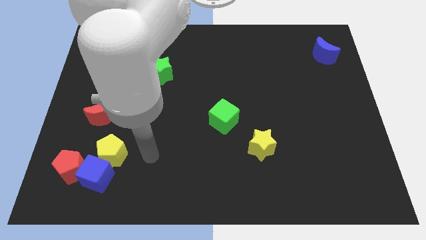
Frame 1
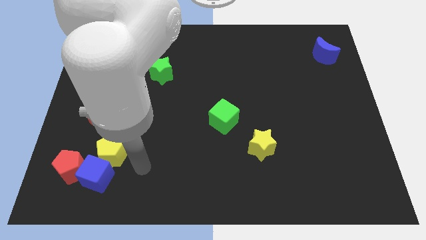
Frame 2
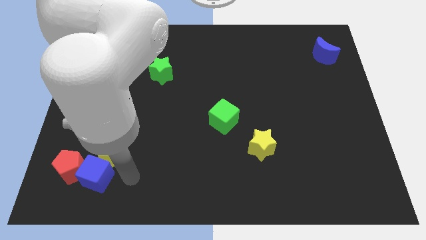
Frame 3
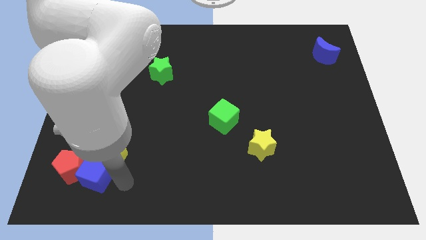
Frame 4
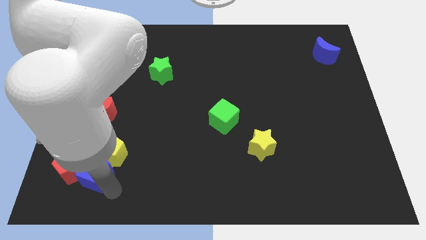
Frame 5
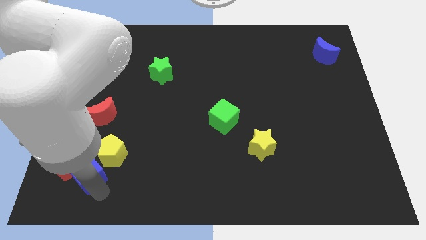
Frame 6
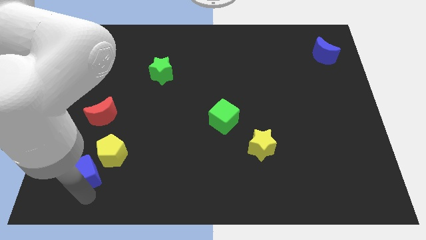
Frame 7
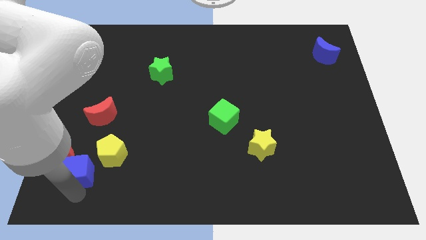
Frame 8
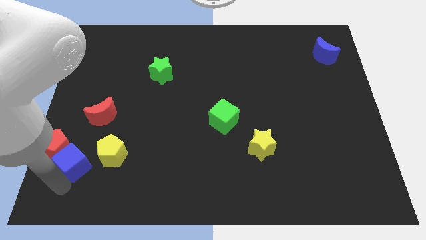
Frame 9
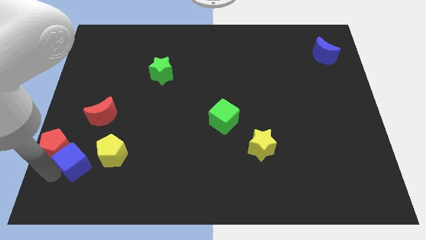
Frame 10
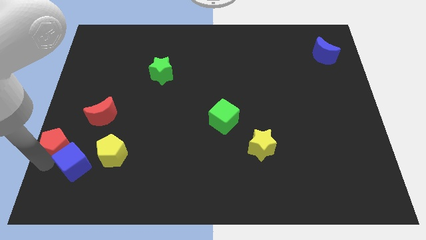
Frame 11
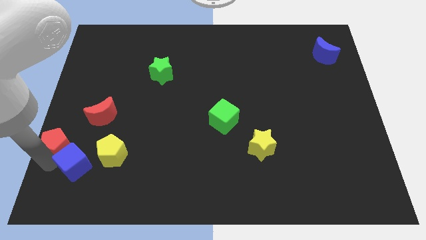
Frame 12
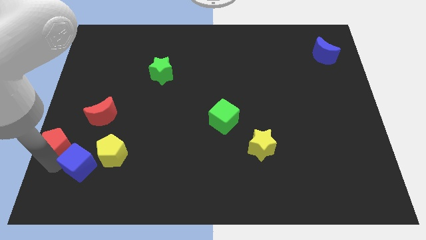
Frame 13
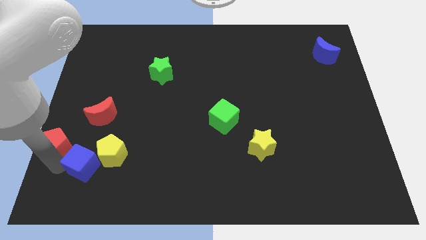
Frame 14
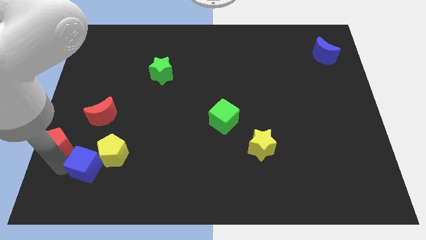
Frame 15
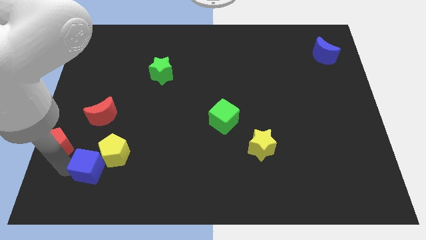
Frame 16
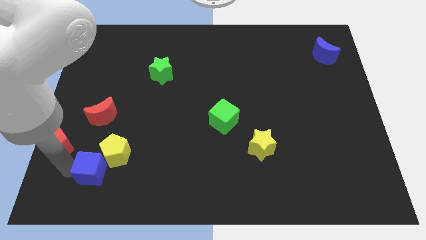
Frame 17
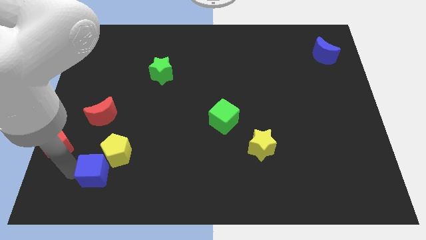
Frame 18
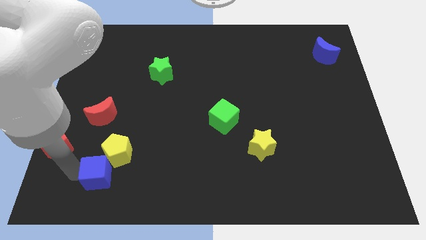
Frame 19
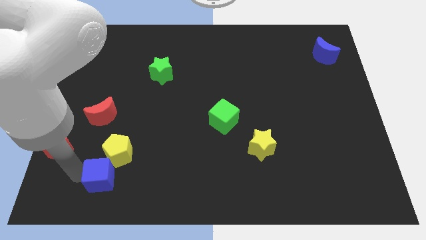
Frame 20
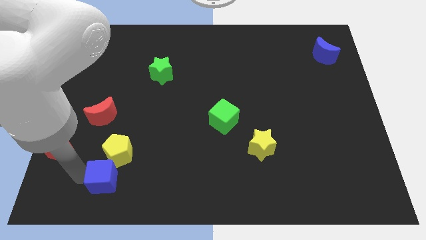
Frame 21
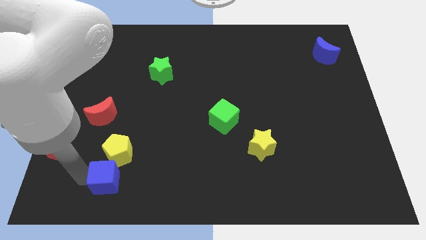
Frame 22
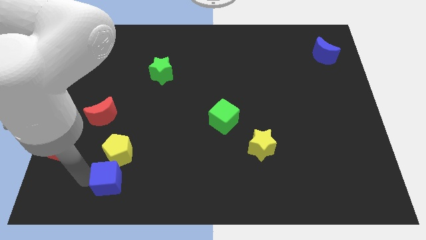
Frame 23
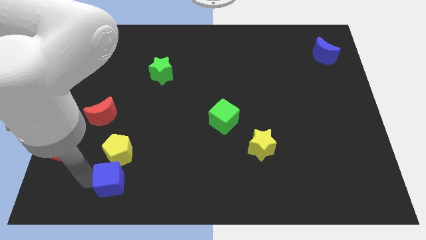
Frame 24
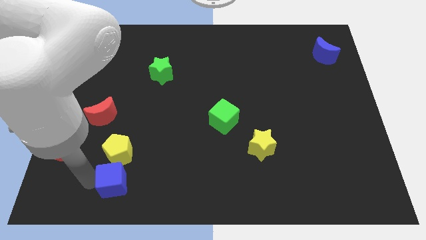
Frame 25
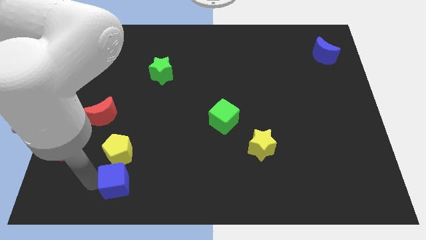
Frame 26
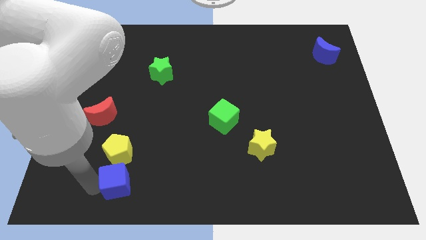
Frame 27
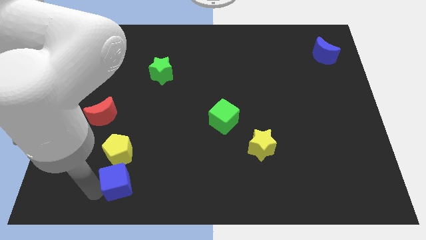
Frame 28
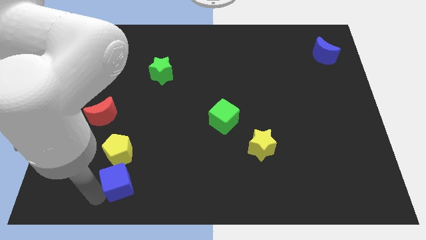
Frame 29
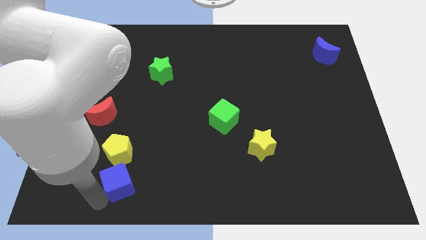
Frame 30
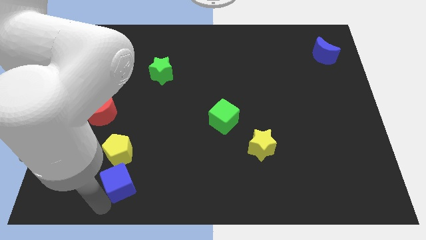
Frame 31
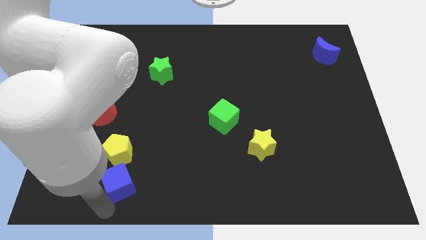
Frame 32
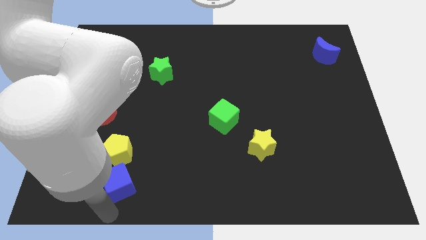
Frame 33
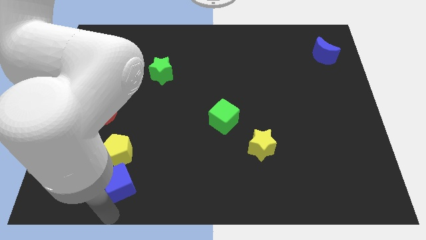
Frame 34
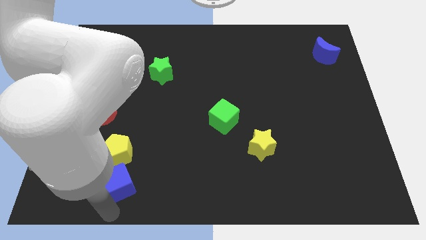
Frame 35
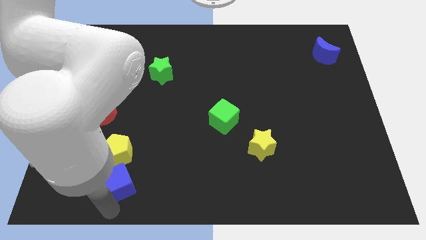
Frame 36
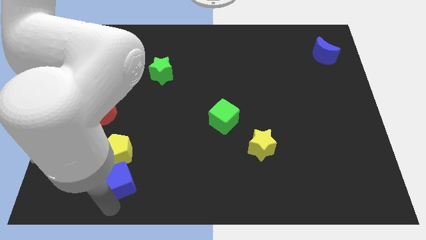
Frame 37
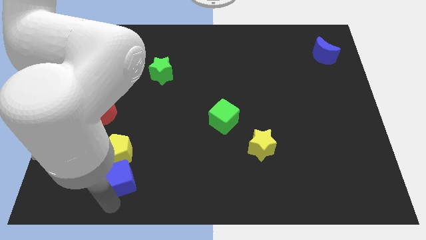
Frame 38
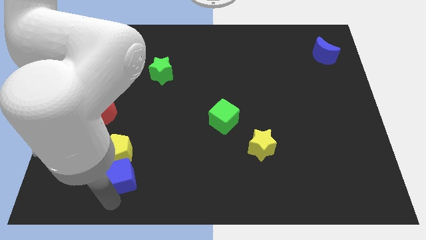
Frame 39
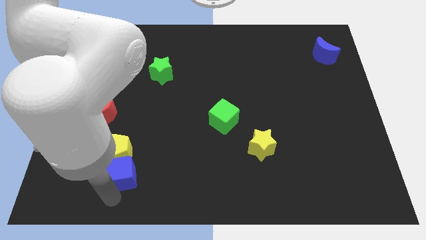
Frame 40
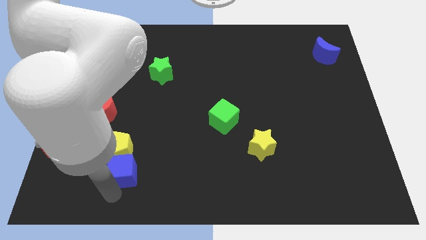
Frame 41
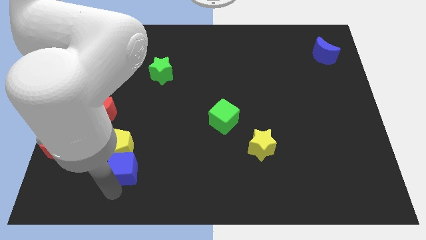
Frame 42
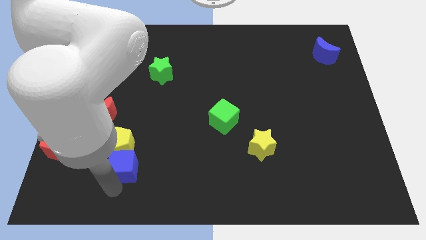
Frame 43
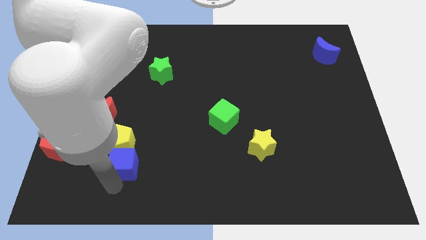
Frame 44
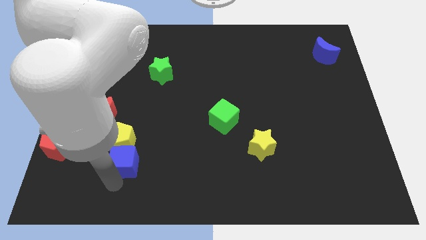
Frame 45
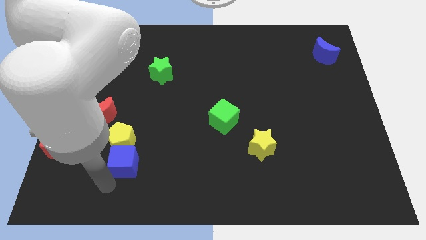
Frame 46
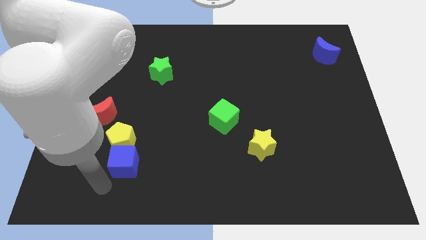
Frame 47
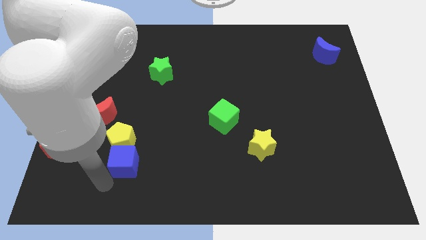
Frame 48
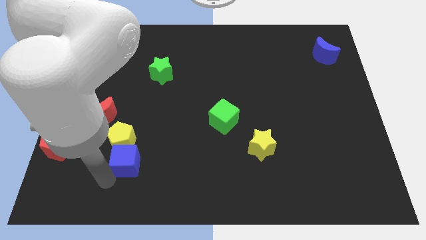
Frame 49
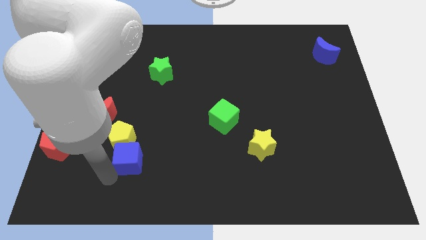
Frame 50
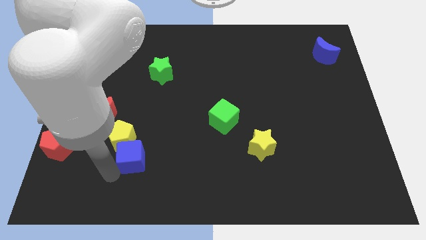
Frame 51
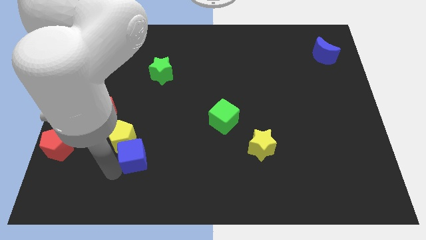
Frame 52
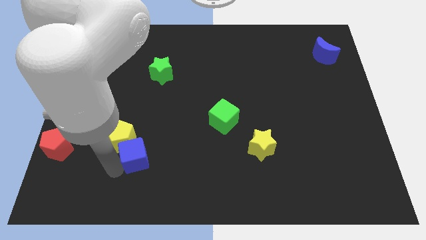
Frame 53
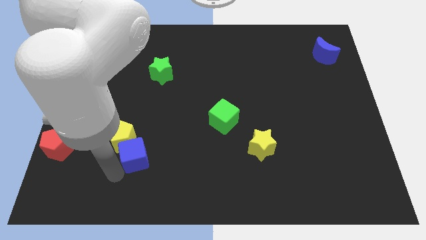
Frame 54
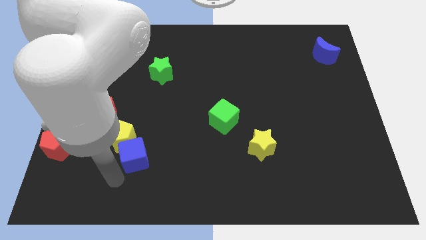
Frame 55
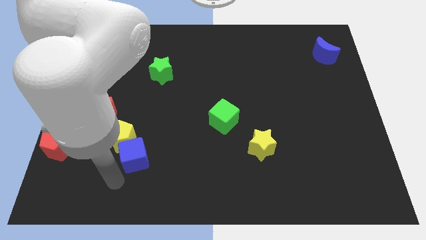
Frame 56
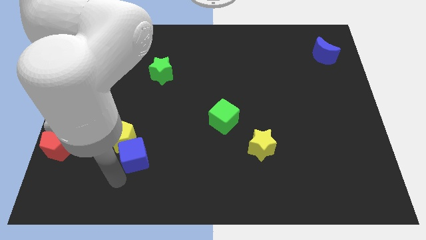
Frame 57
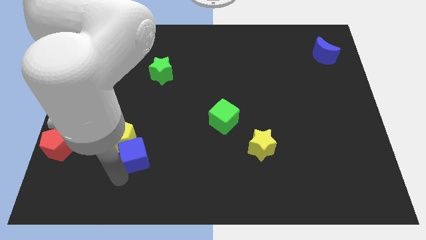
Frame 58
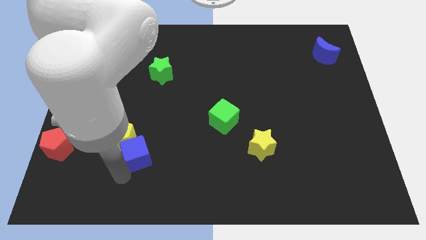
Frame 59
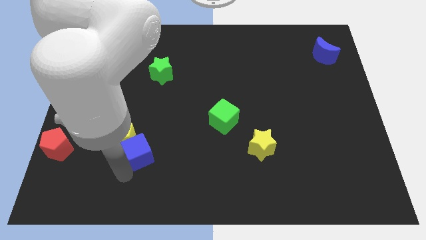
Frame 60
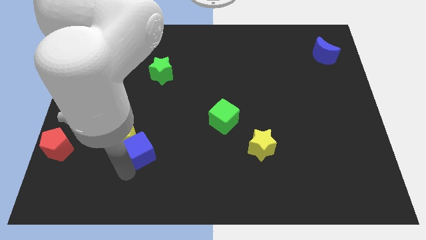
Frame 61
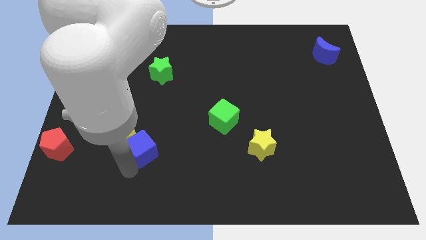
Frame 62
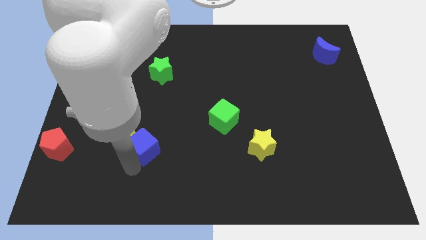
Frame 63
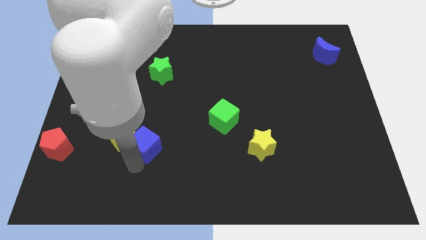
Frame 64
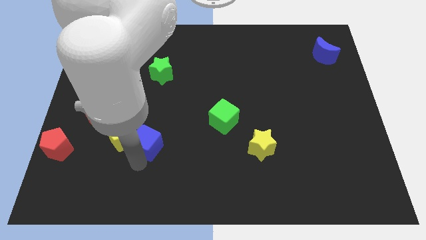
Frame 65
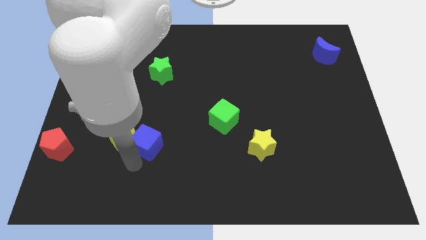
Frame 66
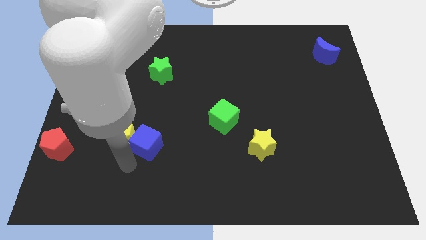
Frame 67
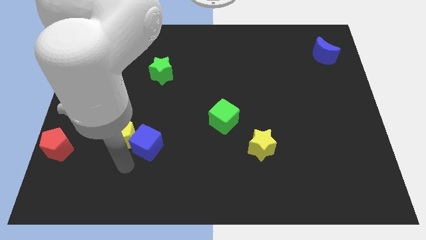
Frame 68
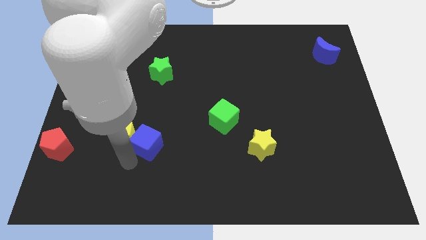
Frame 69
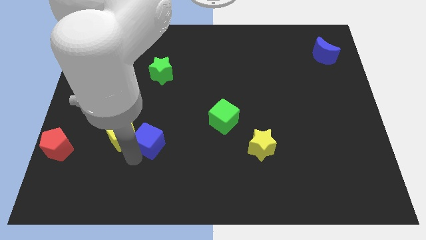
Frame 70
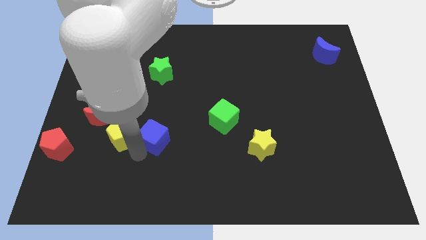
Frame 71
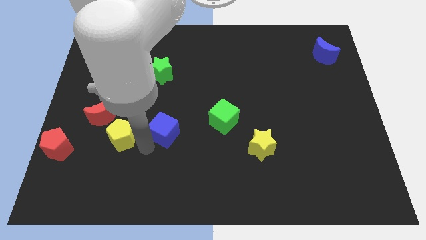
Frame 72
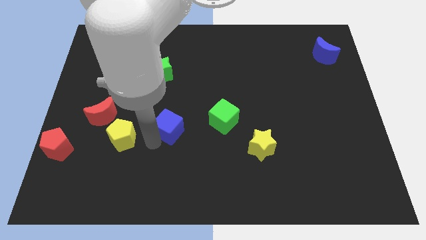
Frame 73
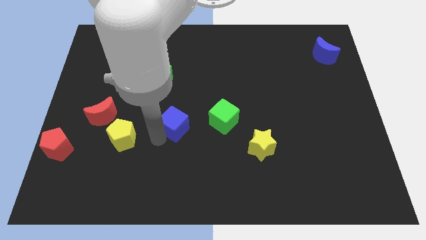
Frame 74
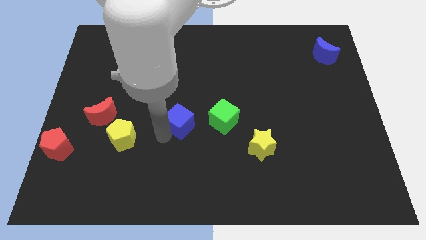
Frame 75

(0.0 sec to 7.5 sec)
move the blue cube up and to the right

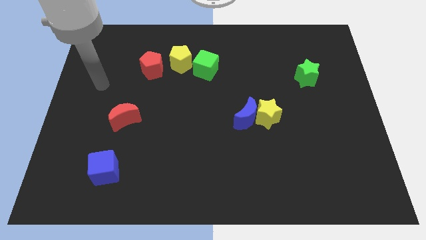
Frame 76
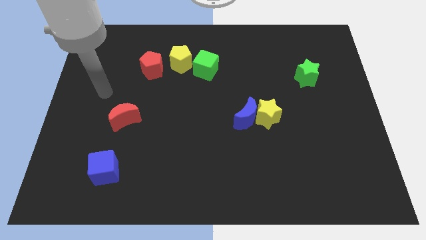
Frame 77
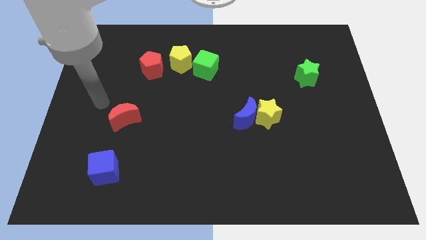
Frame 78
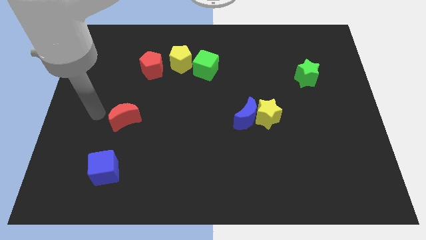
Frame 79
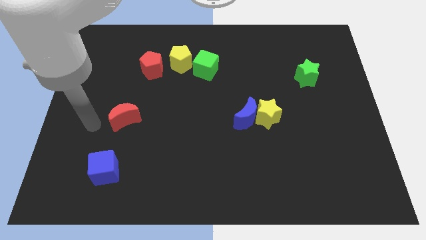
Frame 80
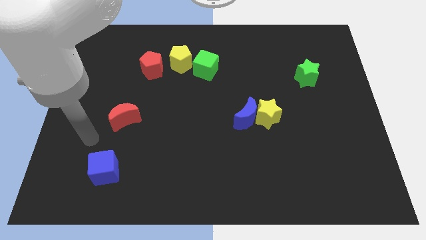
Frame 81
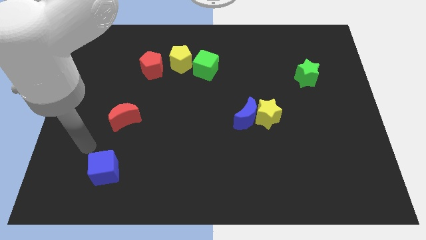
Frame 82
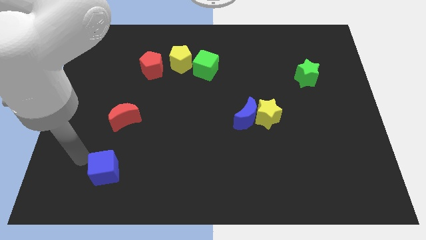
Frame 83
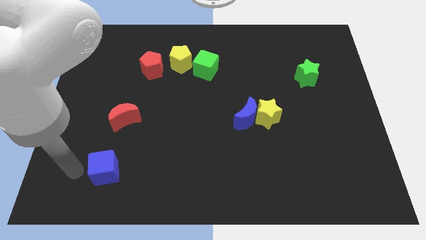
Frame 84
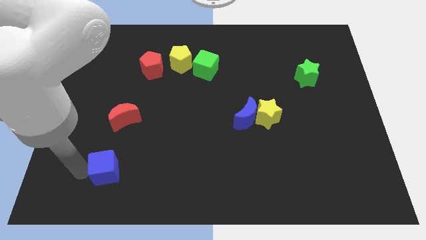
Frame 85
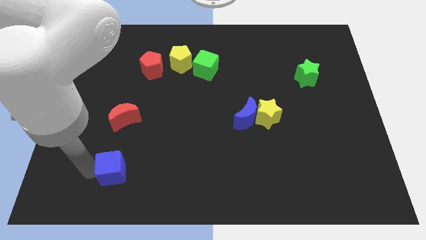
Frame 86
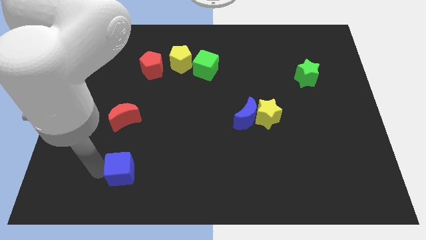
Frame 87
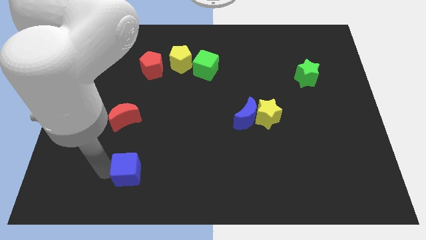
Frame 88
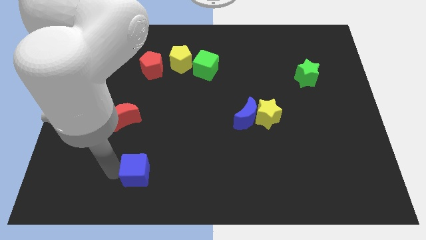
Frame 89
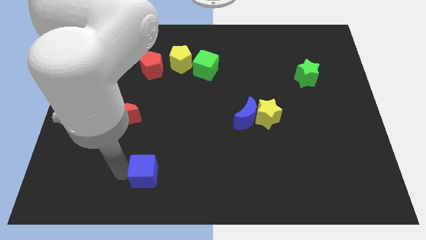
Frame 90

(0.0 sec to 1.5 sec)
slightly move the blue cube right
